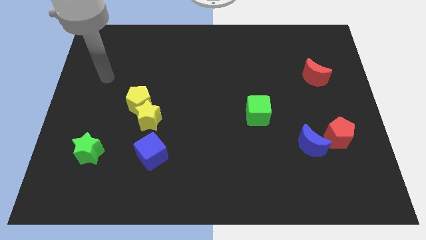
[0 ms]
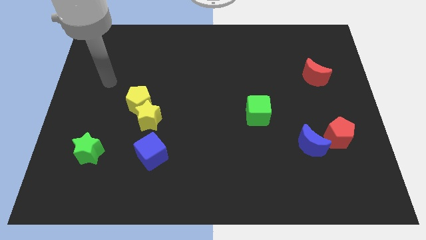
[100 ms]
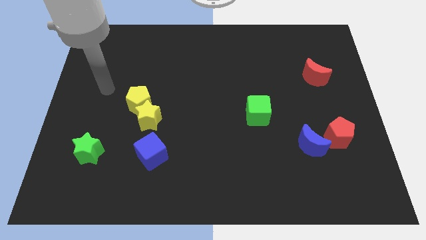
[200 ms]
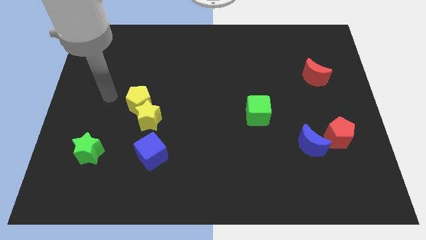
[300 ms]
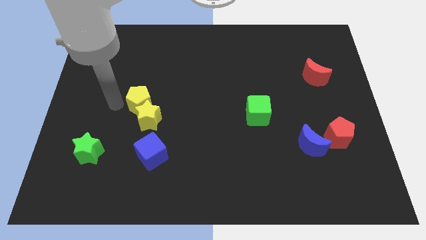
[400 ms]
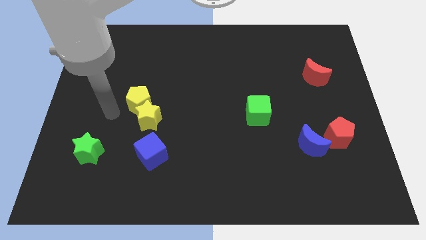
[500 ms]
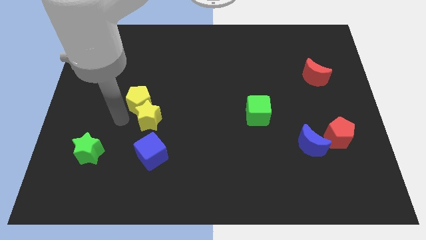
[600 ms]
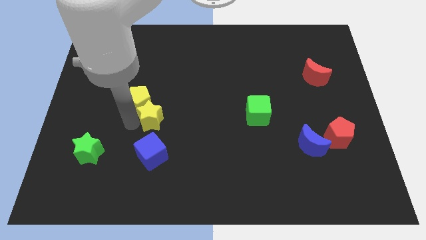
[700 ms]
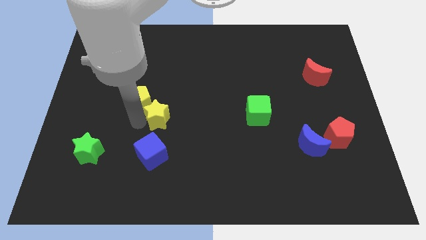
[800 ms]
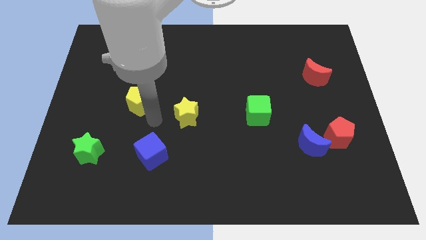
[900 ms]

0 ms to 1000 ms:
separate the yellow pentagon from the yellow star

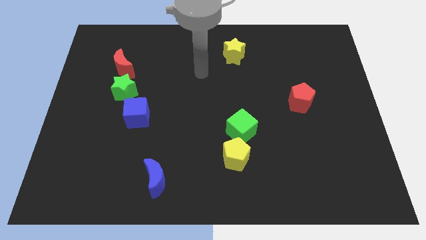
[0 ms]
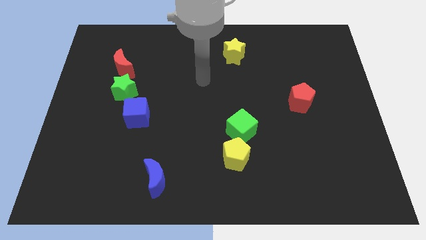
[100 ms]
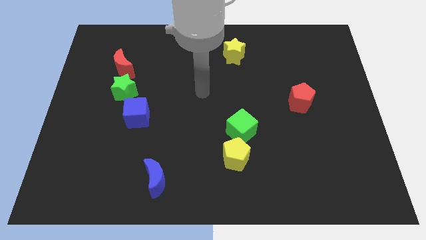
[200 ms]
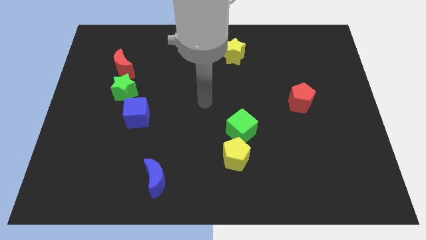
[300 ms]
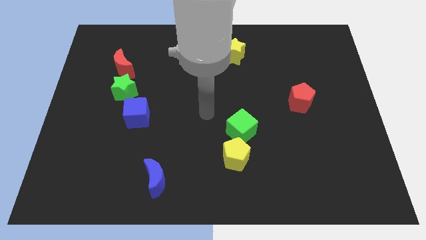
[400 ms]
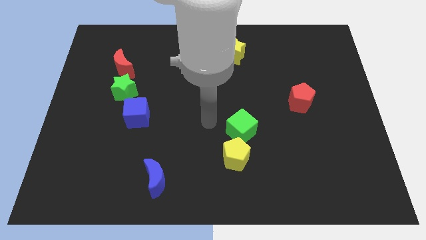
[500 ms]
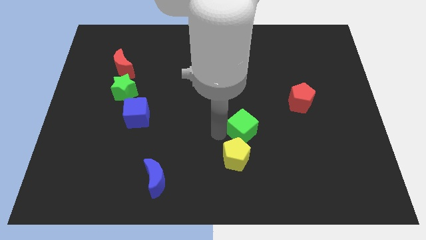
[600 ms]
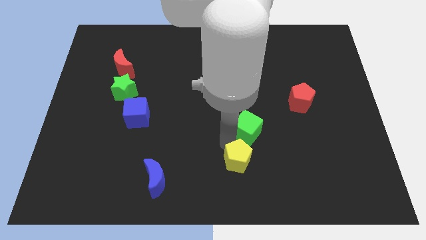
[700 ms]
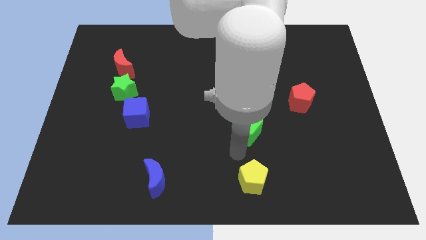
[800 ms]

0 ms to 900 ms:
separate the green cube from the yellow pentagon

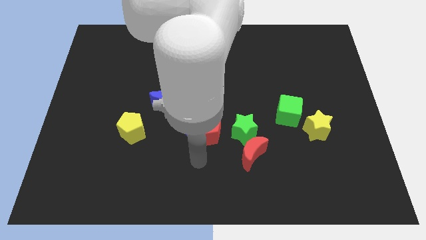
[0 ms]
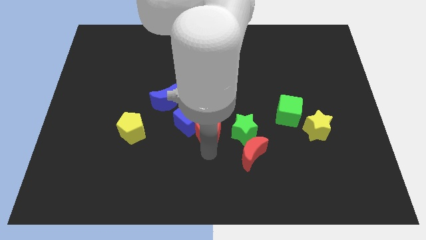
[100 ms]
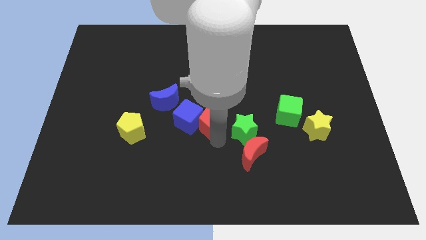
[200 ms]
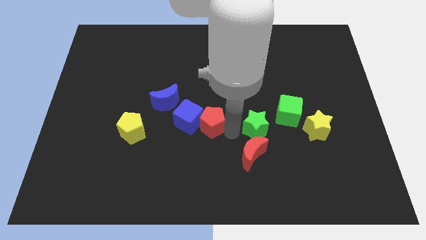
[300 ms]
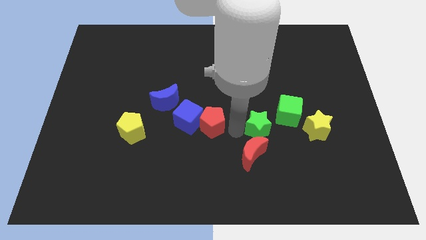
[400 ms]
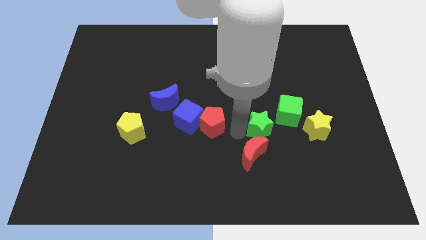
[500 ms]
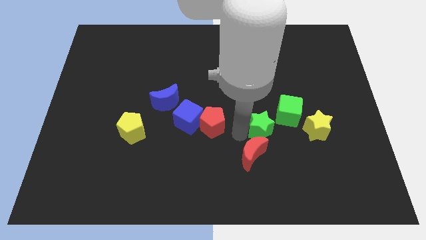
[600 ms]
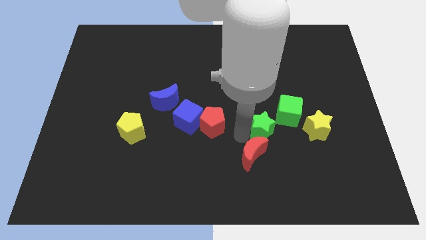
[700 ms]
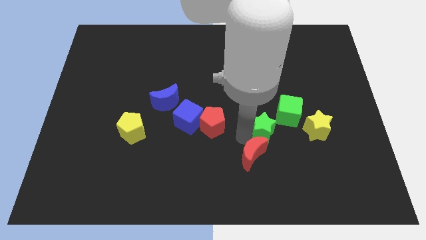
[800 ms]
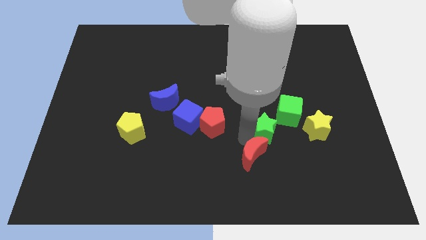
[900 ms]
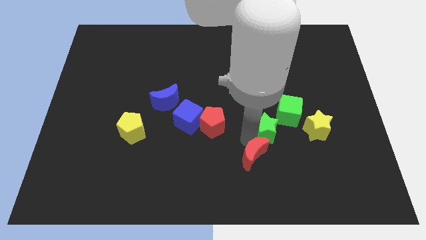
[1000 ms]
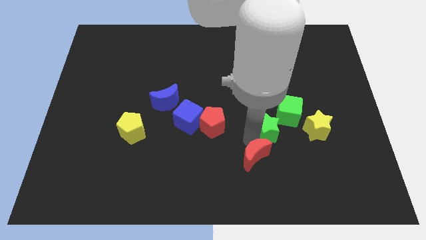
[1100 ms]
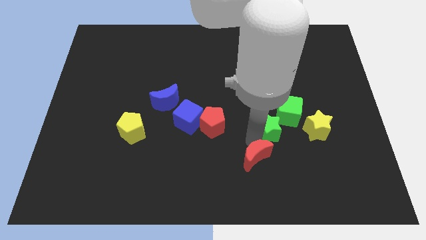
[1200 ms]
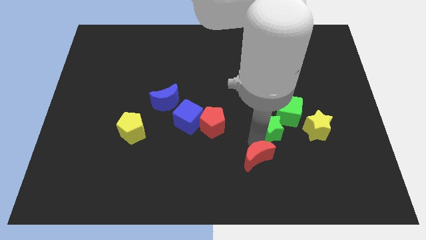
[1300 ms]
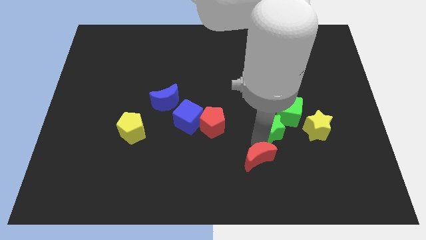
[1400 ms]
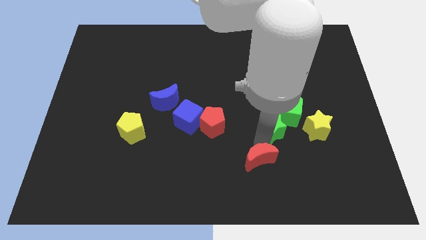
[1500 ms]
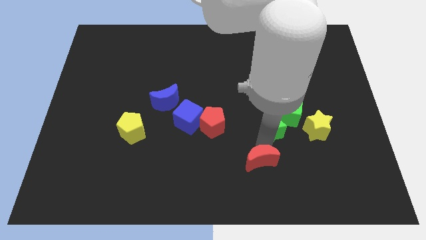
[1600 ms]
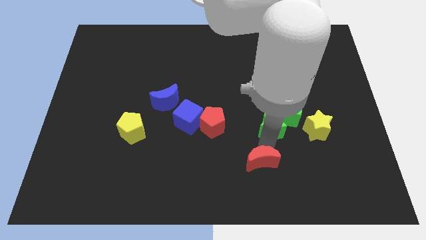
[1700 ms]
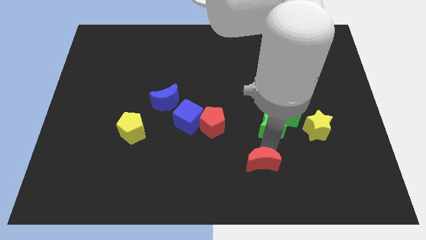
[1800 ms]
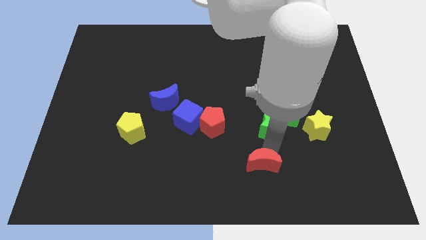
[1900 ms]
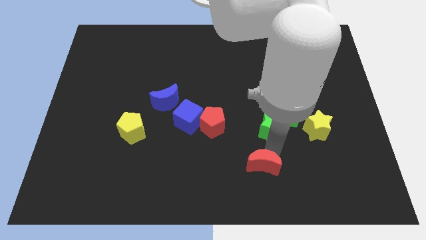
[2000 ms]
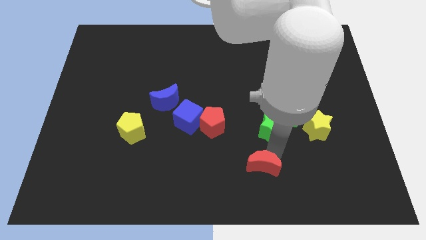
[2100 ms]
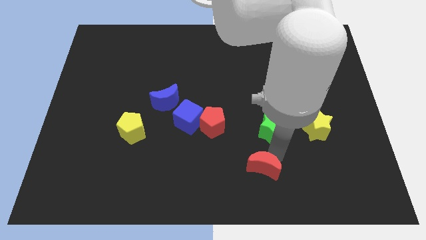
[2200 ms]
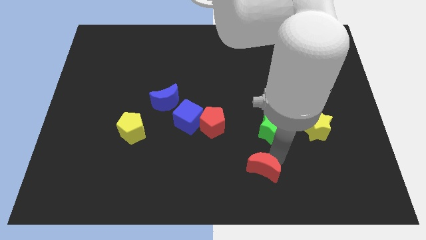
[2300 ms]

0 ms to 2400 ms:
pull the red moon apart from the green star

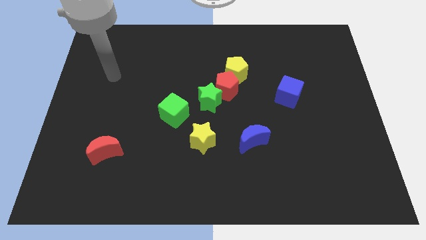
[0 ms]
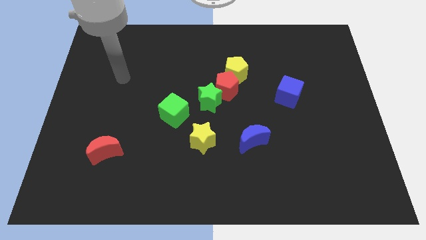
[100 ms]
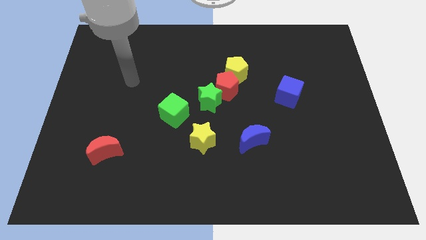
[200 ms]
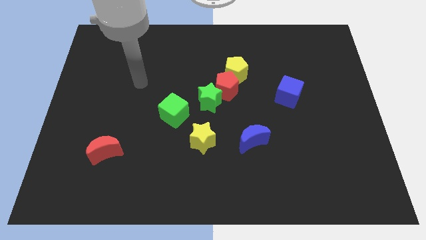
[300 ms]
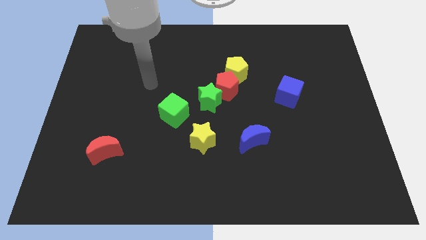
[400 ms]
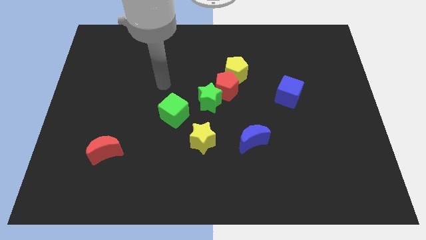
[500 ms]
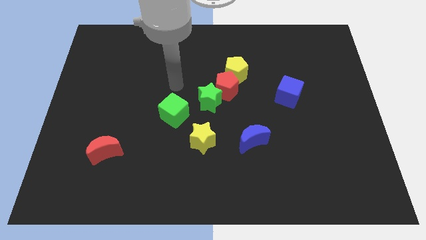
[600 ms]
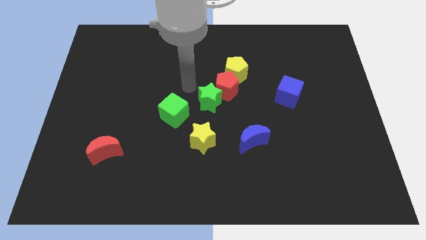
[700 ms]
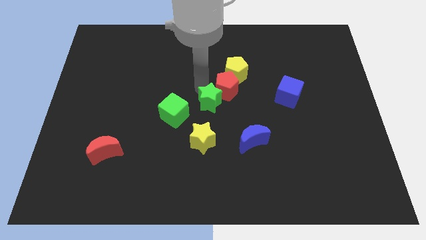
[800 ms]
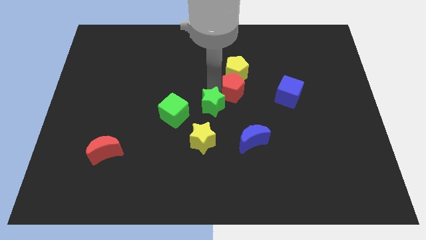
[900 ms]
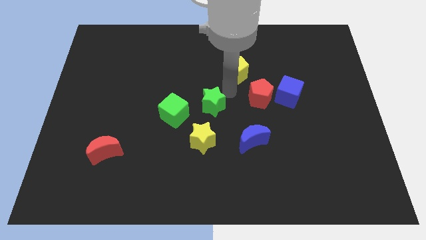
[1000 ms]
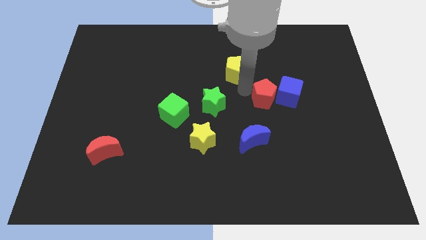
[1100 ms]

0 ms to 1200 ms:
move the yellow pentagon away from the red pentagon

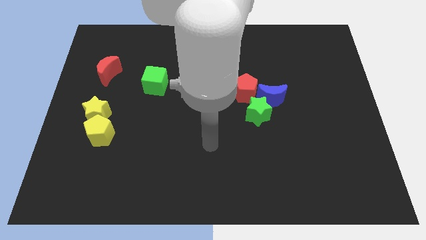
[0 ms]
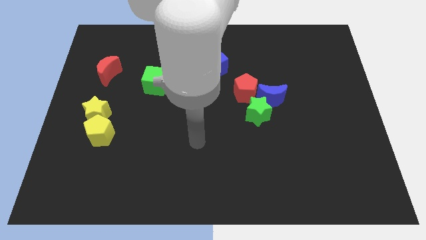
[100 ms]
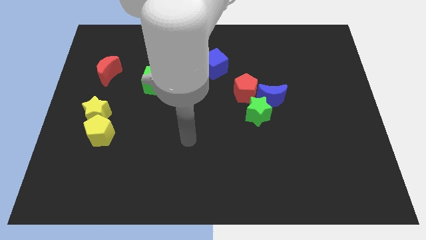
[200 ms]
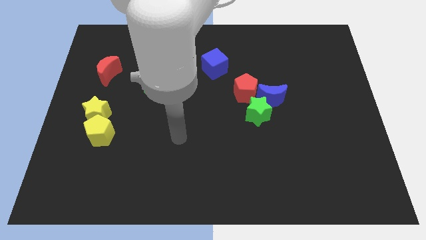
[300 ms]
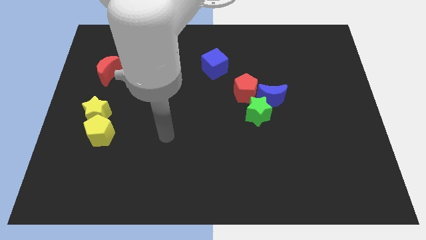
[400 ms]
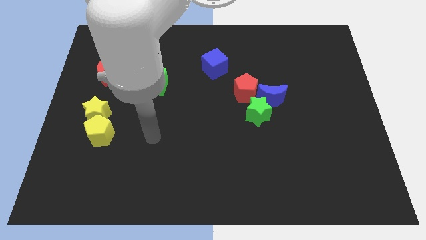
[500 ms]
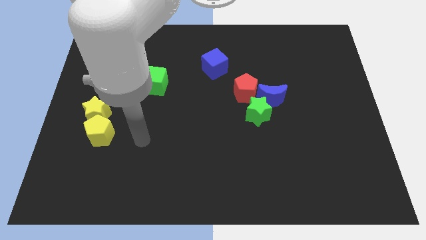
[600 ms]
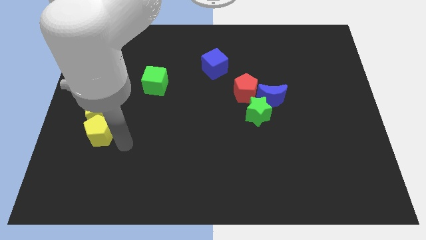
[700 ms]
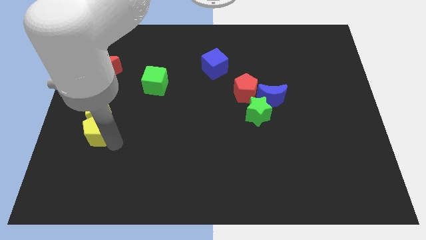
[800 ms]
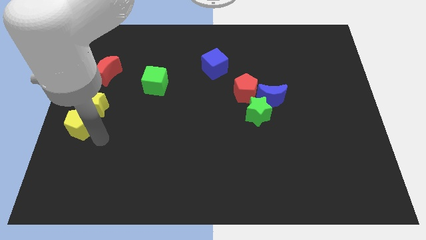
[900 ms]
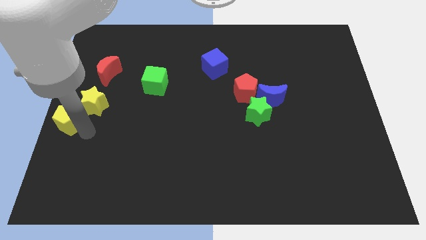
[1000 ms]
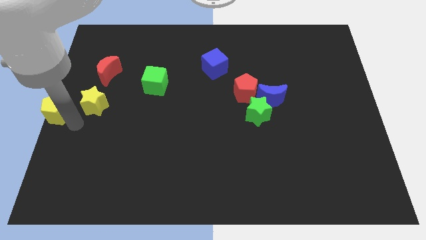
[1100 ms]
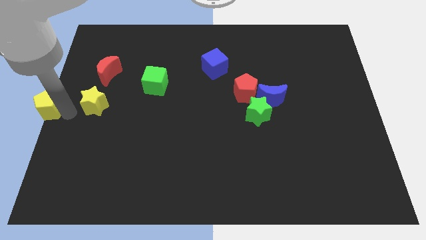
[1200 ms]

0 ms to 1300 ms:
move the yellow star away from the yellow pentagon

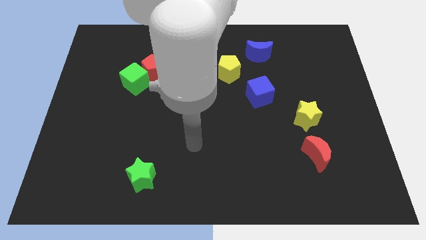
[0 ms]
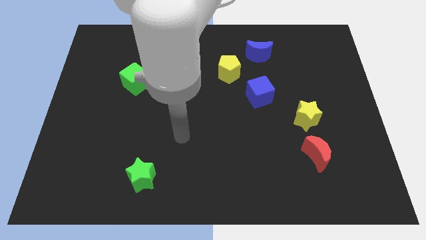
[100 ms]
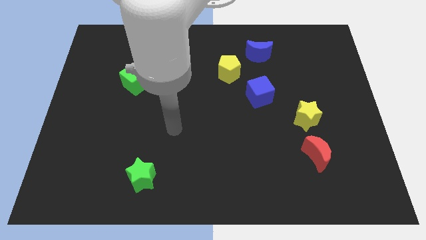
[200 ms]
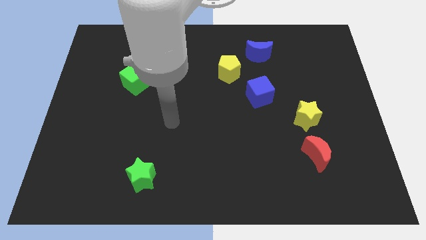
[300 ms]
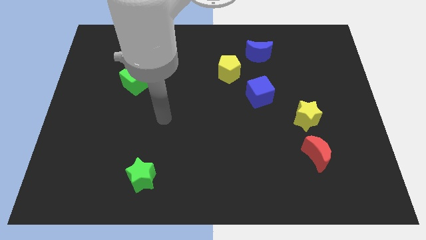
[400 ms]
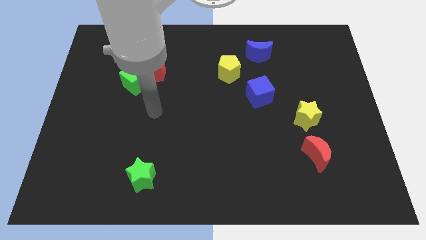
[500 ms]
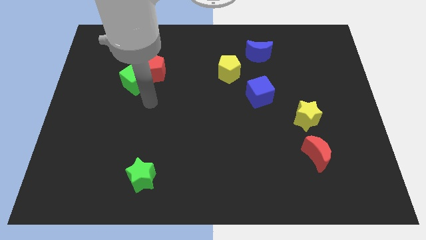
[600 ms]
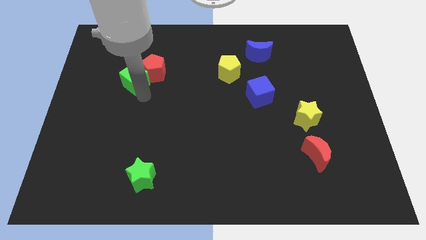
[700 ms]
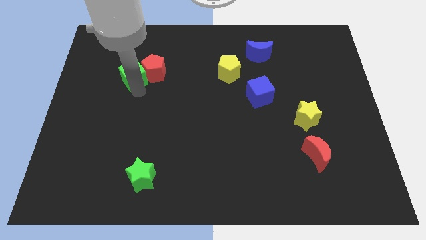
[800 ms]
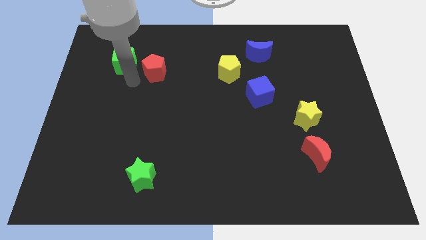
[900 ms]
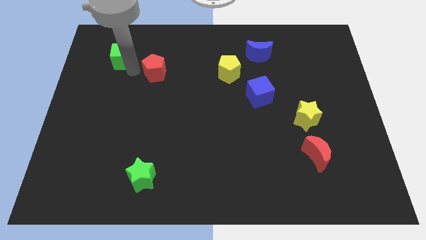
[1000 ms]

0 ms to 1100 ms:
move the red pentagon away from the green cube

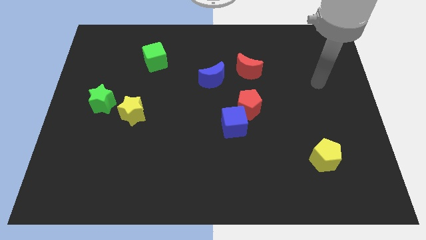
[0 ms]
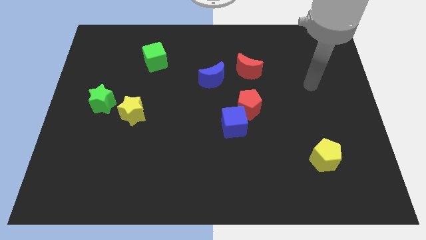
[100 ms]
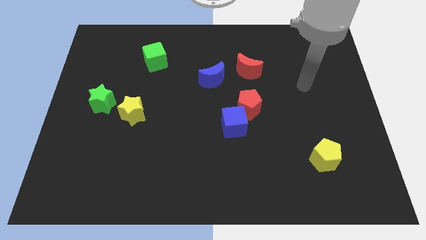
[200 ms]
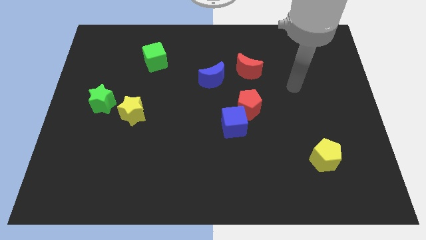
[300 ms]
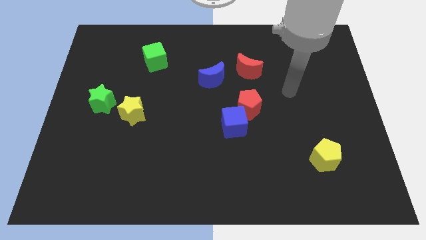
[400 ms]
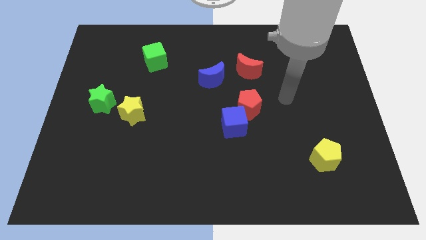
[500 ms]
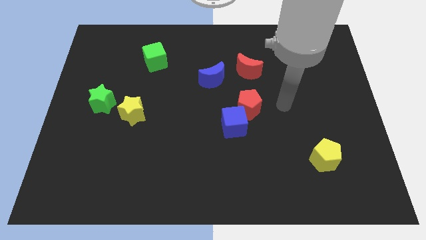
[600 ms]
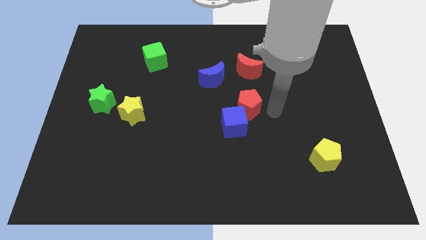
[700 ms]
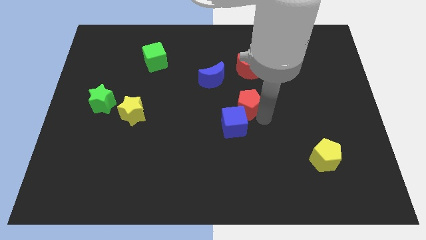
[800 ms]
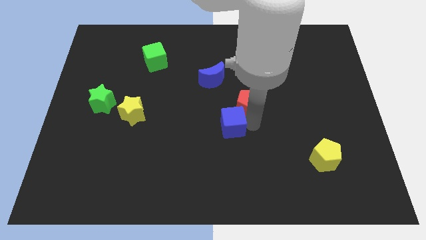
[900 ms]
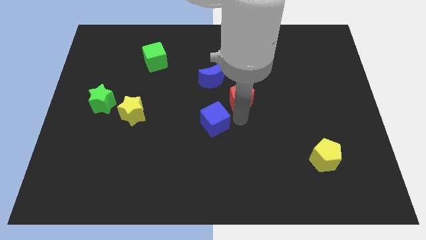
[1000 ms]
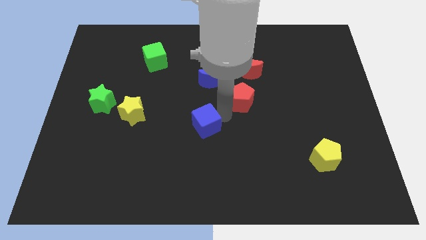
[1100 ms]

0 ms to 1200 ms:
separate the red pentagon from the blue cube

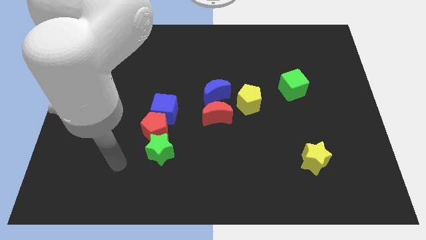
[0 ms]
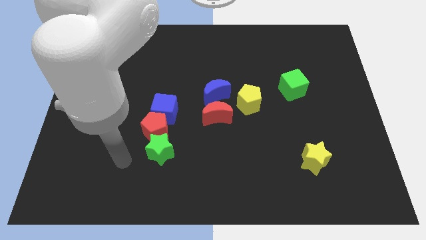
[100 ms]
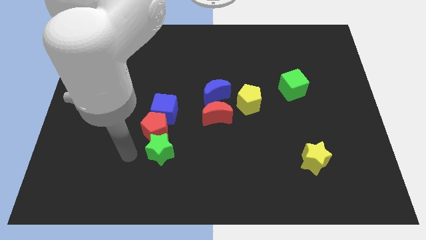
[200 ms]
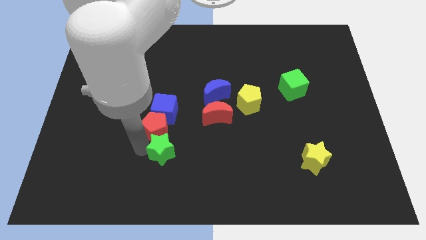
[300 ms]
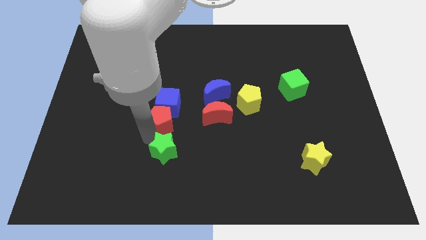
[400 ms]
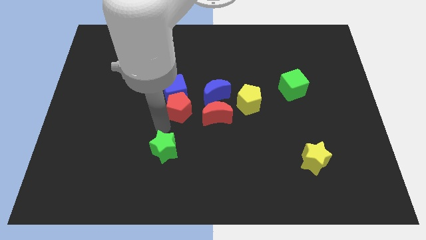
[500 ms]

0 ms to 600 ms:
separate the green star from the red pentagon
